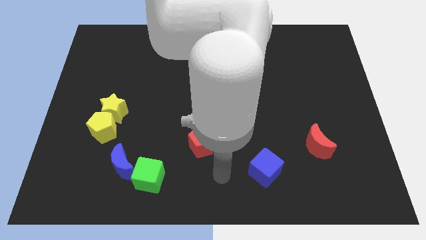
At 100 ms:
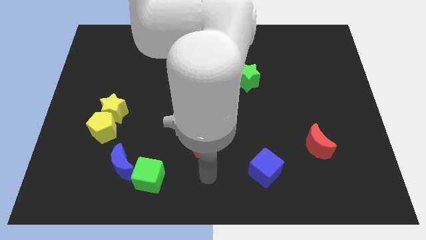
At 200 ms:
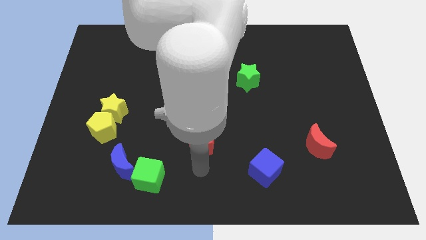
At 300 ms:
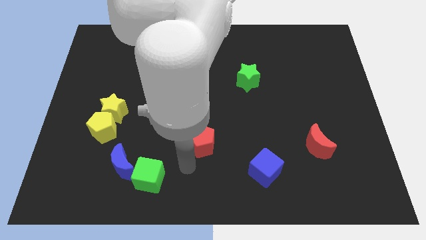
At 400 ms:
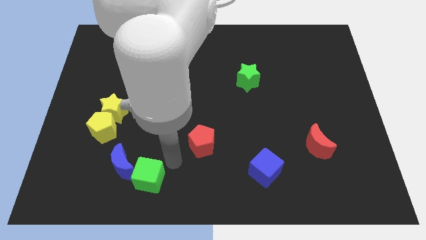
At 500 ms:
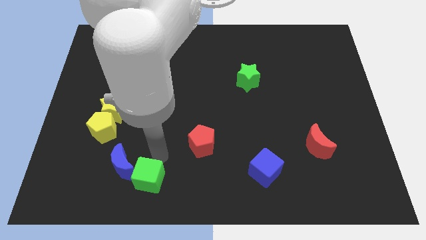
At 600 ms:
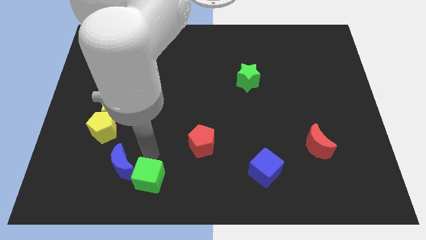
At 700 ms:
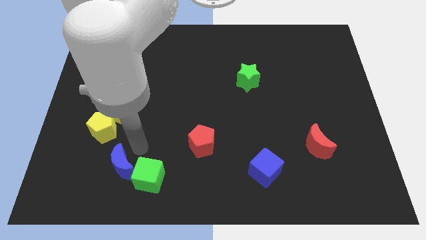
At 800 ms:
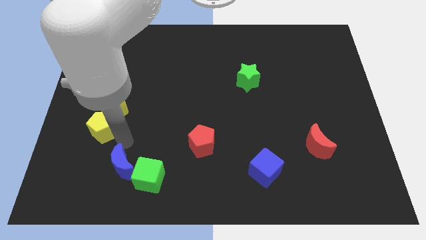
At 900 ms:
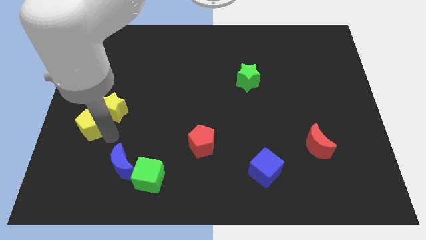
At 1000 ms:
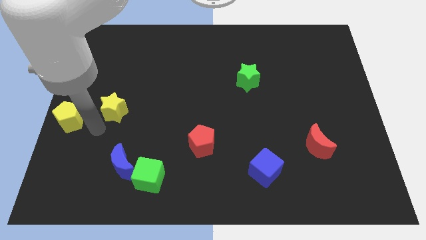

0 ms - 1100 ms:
pull the yellow star apart from the yellow pentagon

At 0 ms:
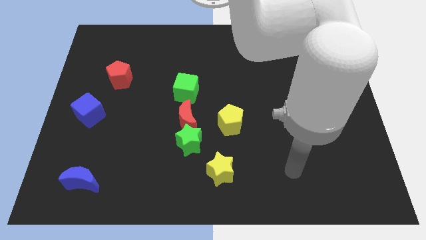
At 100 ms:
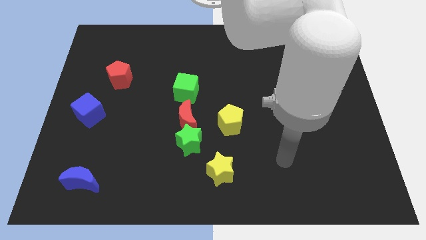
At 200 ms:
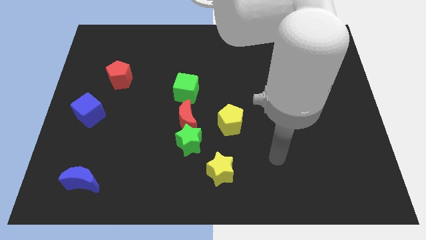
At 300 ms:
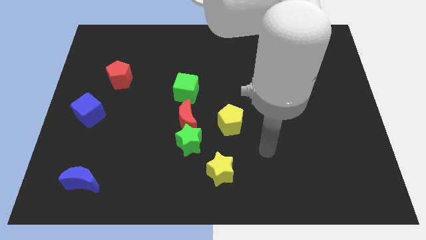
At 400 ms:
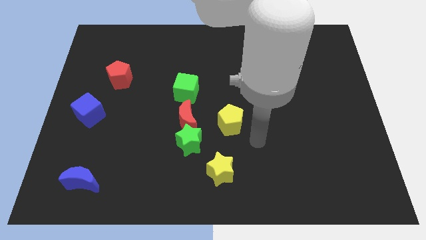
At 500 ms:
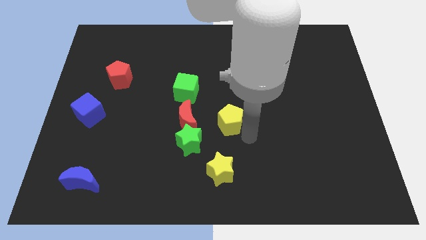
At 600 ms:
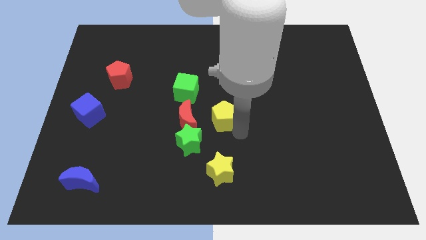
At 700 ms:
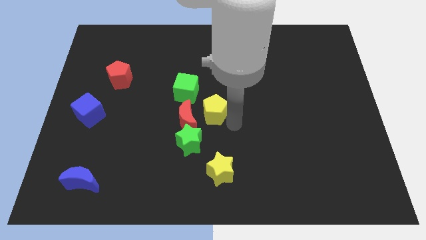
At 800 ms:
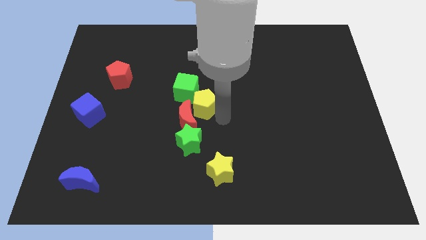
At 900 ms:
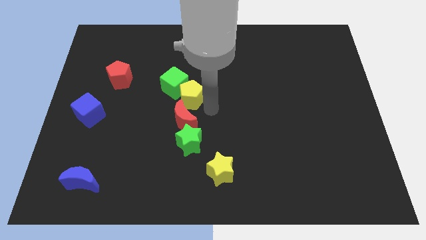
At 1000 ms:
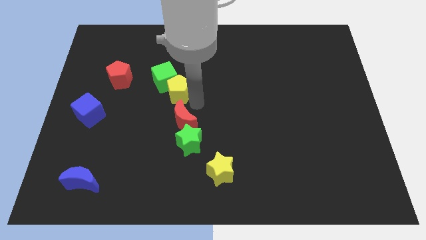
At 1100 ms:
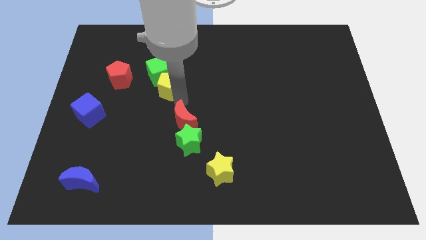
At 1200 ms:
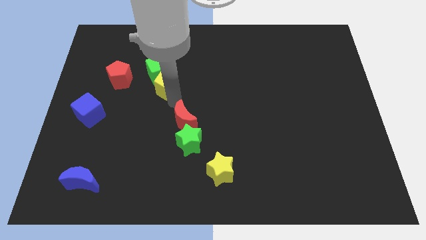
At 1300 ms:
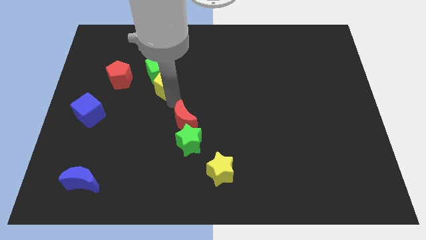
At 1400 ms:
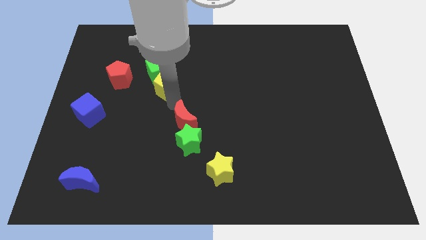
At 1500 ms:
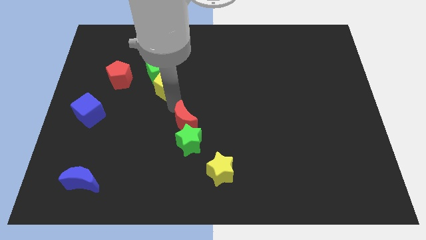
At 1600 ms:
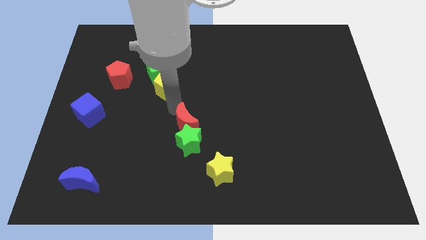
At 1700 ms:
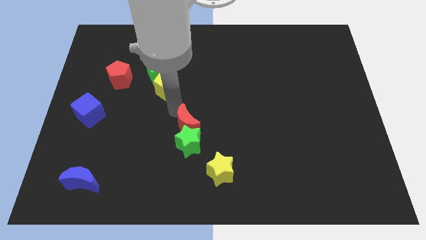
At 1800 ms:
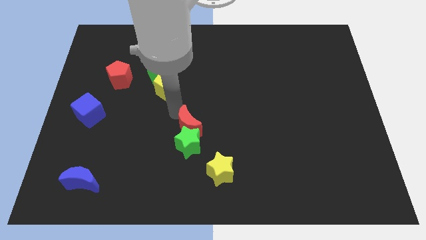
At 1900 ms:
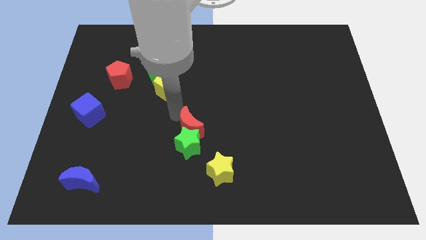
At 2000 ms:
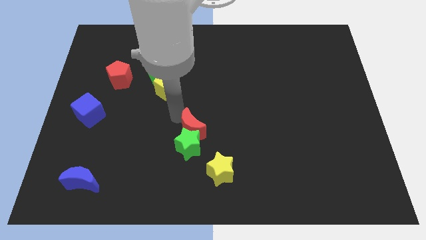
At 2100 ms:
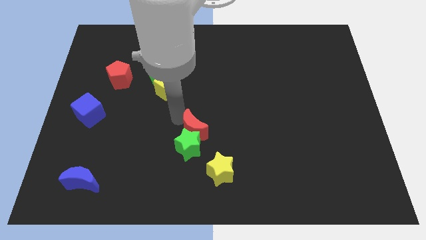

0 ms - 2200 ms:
separate the red moon from the clump

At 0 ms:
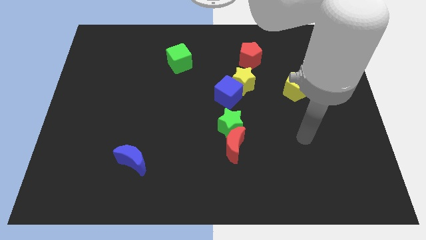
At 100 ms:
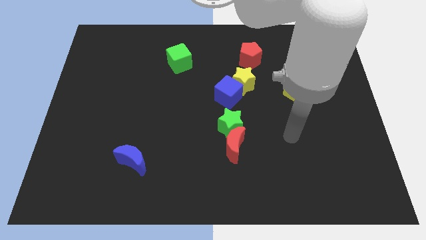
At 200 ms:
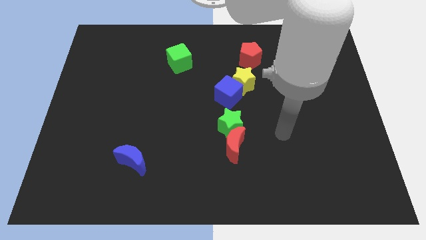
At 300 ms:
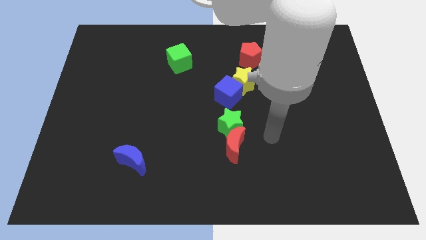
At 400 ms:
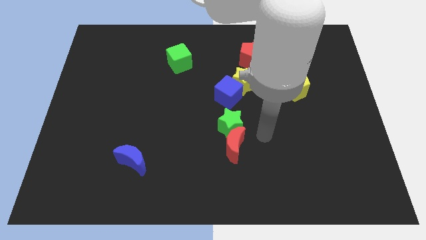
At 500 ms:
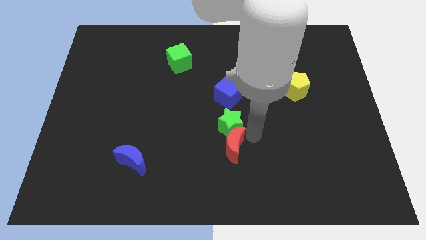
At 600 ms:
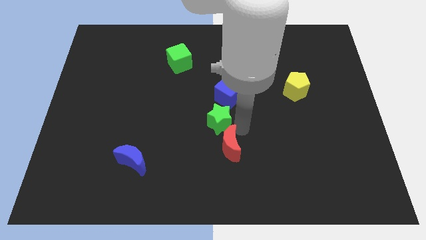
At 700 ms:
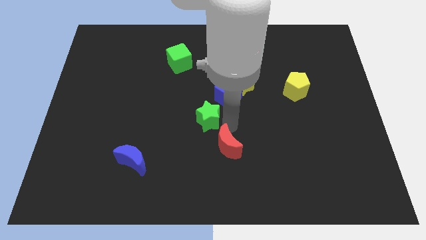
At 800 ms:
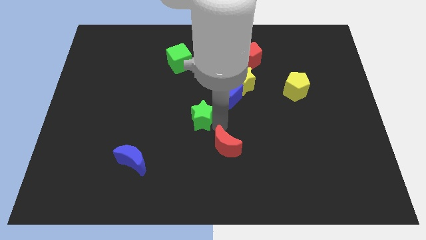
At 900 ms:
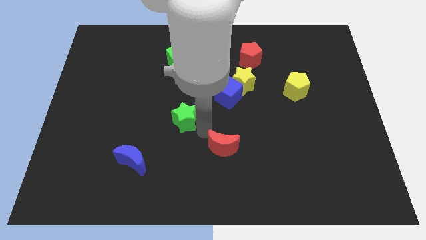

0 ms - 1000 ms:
pull the red moon apart from the green star

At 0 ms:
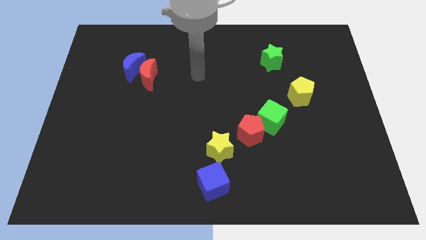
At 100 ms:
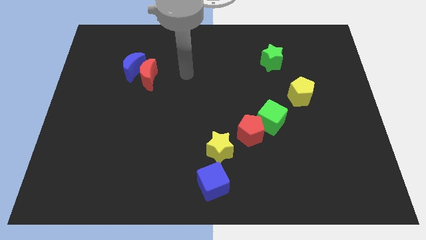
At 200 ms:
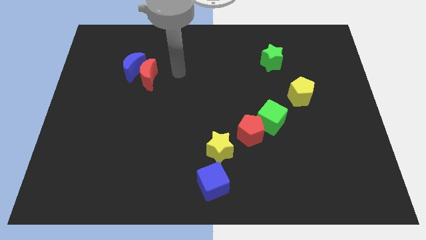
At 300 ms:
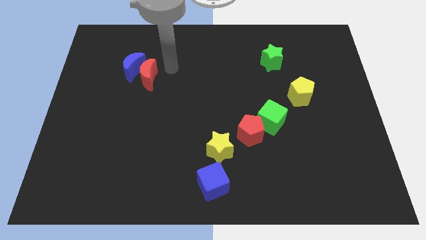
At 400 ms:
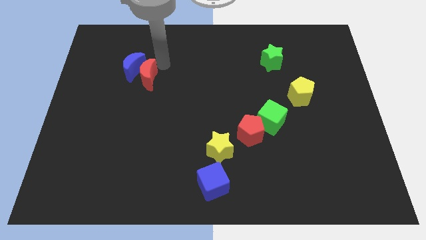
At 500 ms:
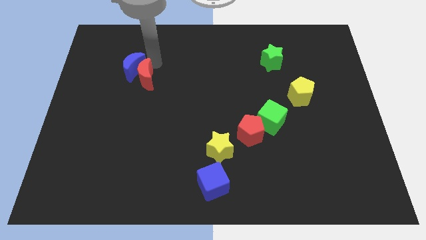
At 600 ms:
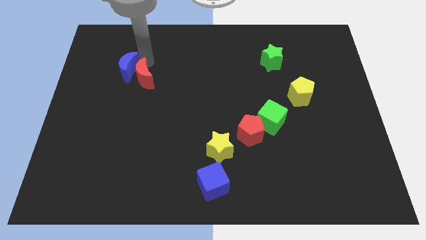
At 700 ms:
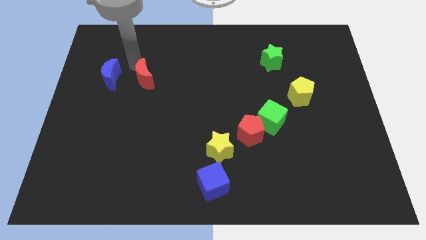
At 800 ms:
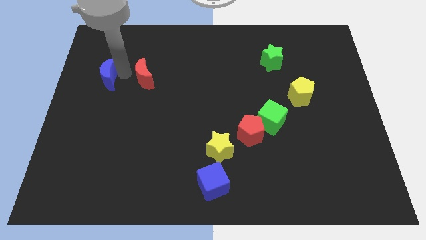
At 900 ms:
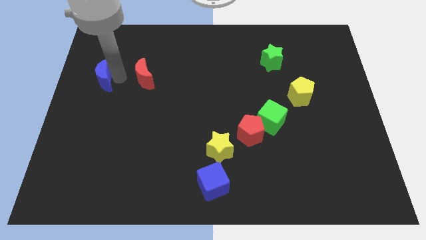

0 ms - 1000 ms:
pull the red moon apart from the blue moon

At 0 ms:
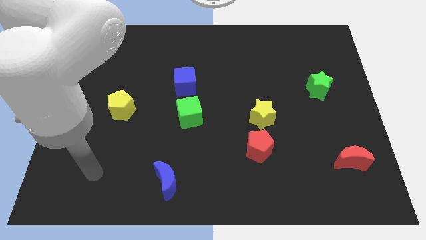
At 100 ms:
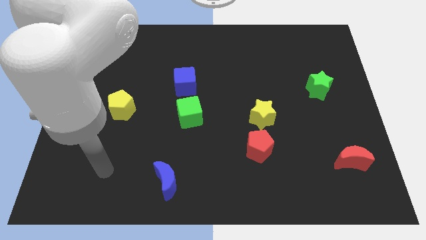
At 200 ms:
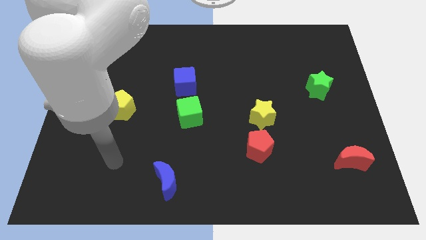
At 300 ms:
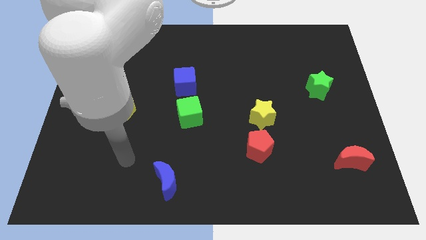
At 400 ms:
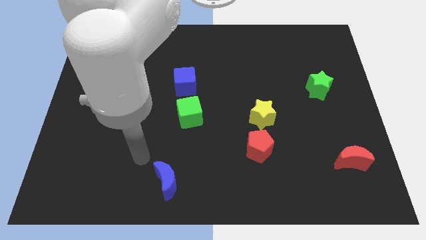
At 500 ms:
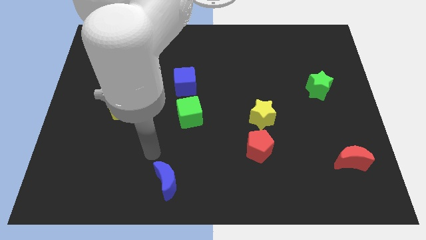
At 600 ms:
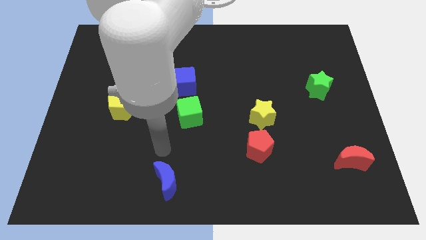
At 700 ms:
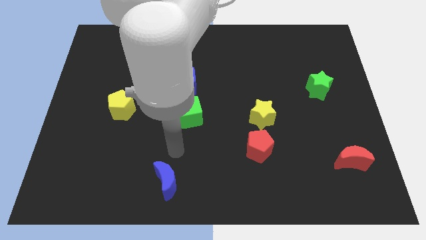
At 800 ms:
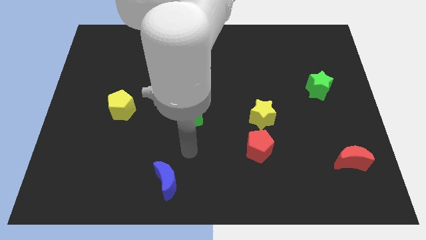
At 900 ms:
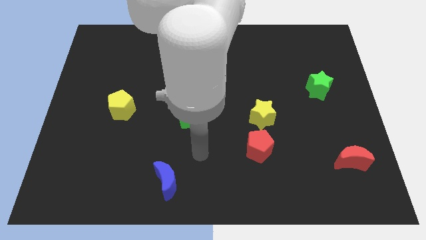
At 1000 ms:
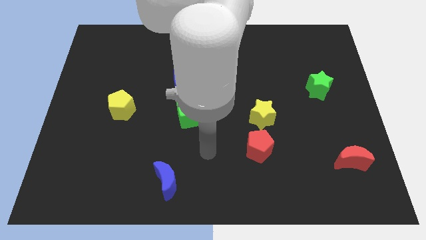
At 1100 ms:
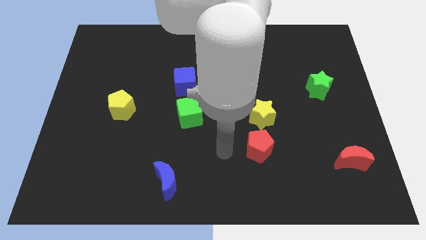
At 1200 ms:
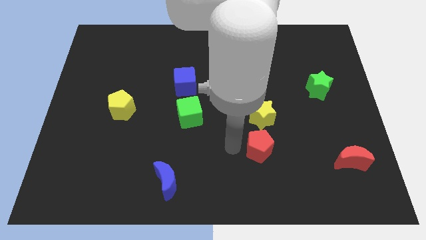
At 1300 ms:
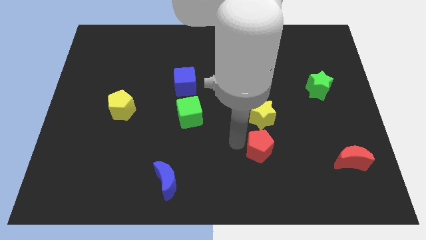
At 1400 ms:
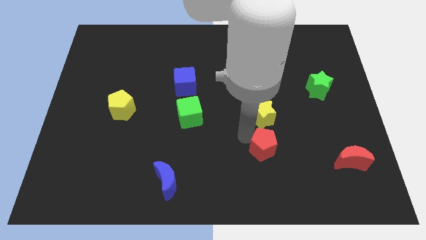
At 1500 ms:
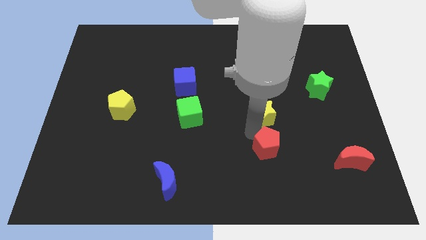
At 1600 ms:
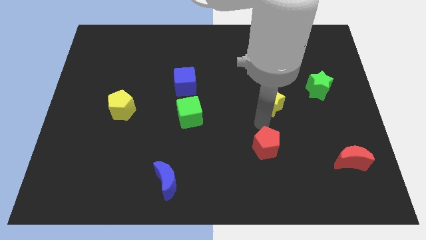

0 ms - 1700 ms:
pull the red pentagon apart from the yellow star

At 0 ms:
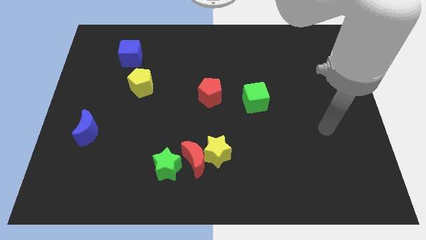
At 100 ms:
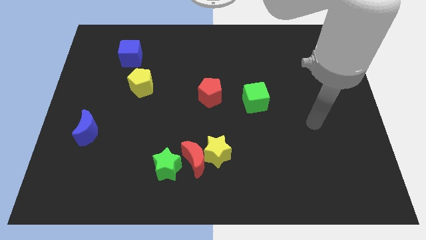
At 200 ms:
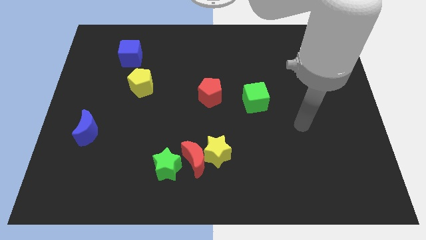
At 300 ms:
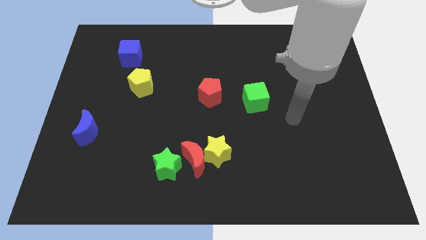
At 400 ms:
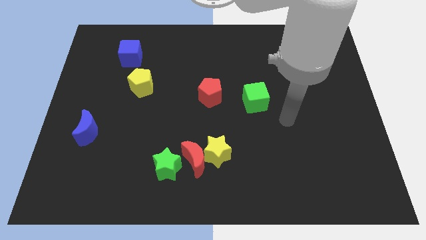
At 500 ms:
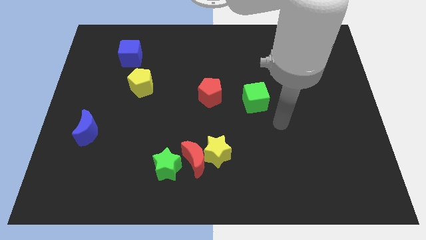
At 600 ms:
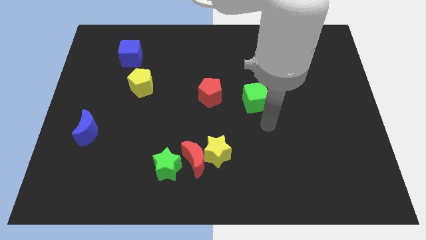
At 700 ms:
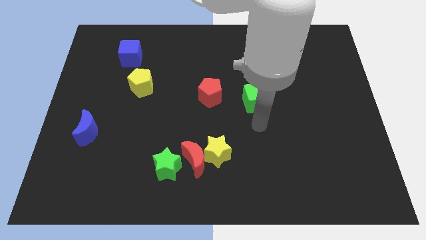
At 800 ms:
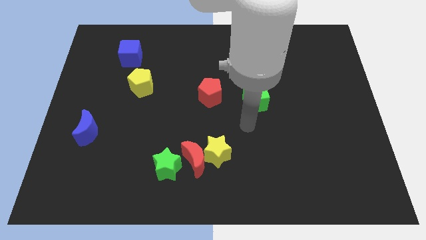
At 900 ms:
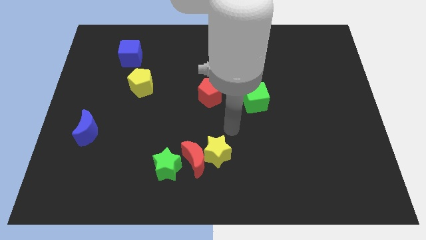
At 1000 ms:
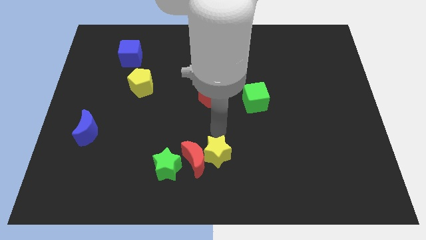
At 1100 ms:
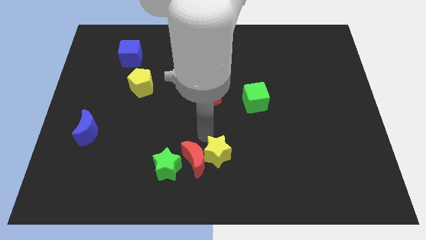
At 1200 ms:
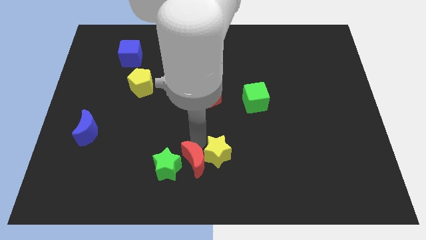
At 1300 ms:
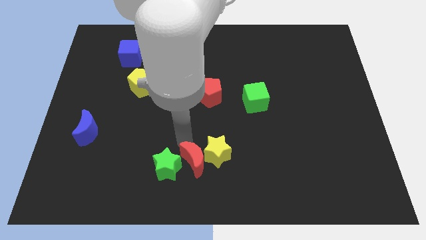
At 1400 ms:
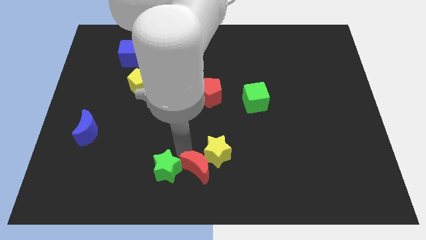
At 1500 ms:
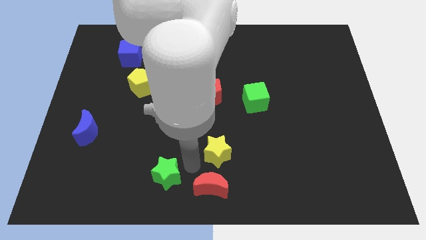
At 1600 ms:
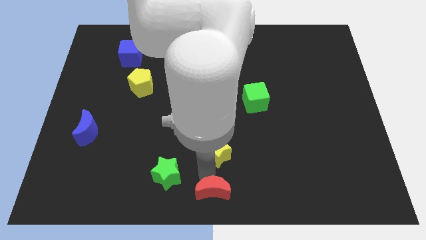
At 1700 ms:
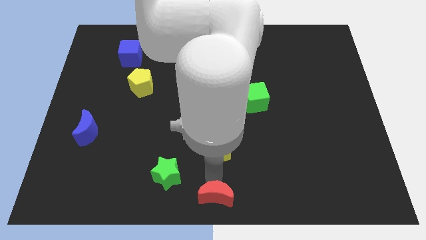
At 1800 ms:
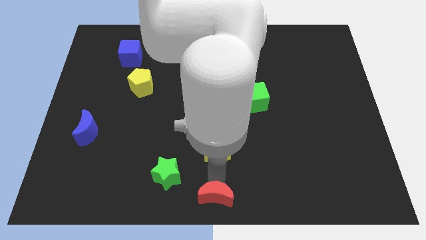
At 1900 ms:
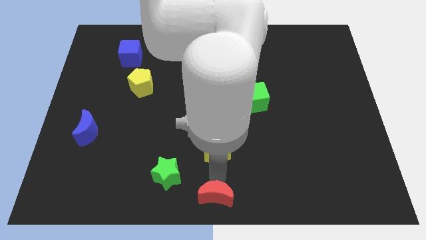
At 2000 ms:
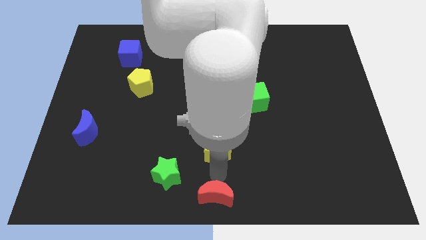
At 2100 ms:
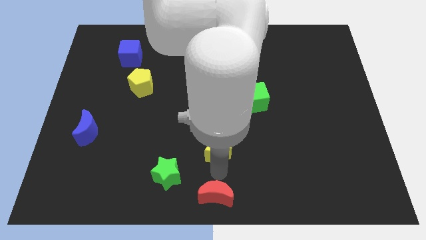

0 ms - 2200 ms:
move the yellow star away from the red moon

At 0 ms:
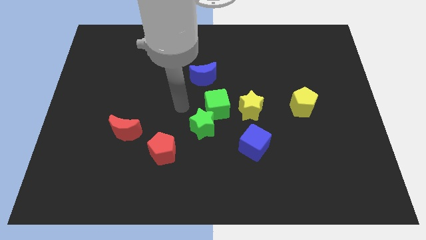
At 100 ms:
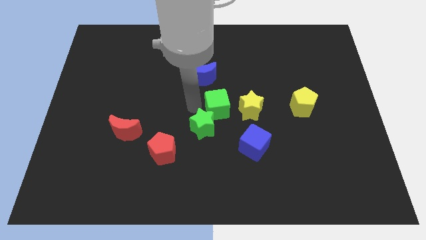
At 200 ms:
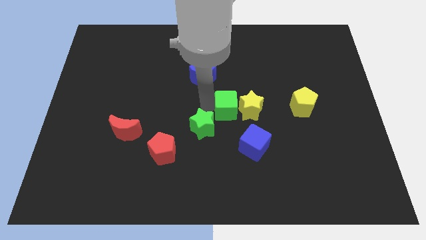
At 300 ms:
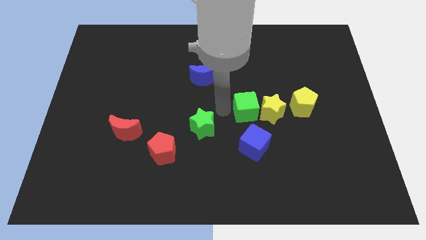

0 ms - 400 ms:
separate the green star from the green cube
